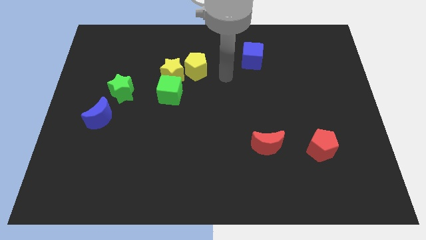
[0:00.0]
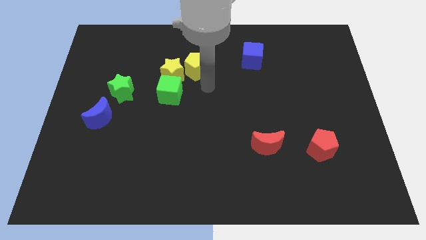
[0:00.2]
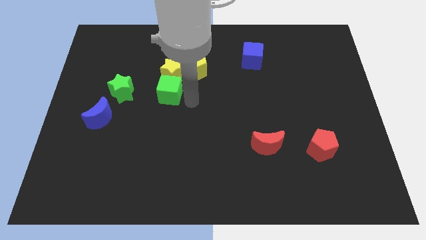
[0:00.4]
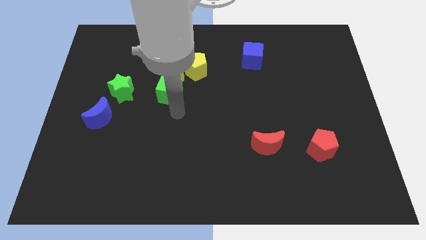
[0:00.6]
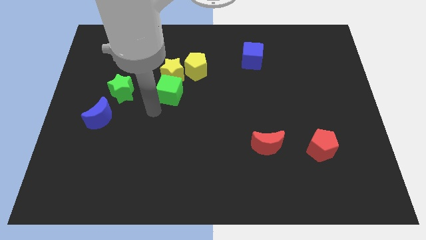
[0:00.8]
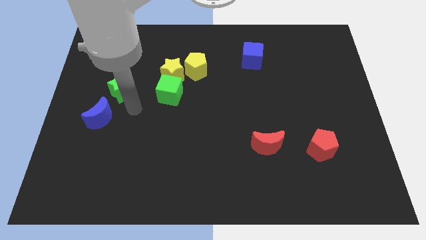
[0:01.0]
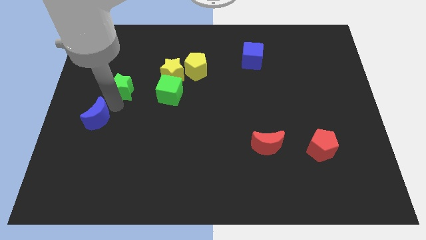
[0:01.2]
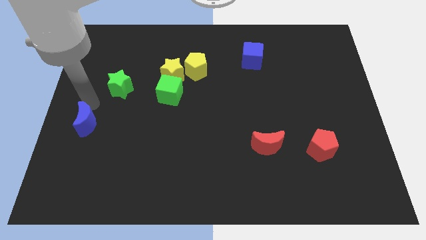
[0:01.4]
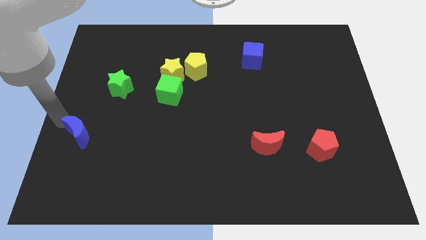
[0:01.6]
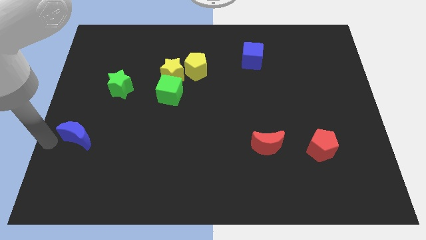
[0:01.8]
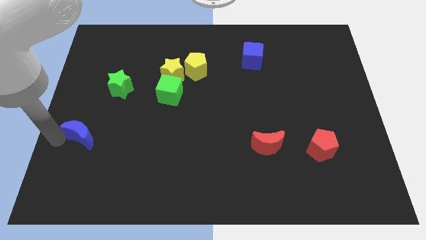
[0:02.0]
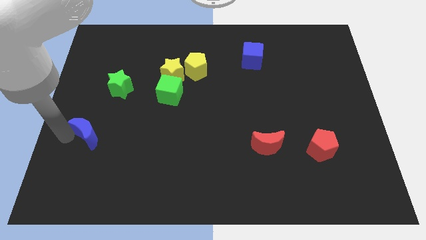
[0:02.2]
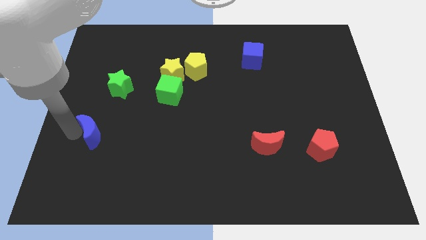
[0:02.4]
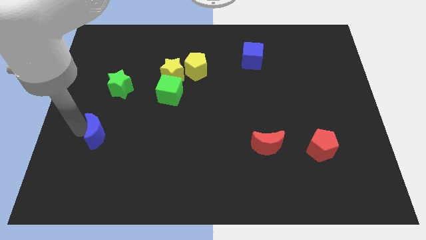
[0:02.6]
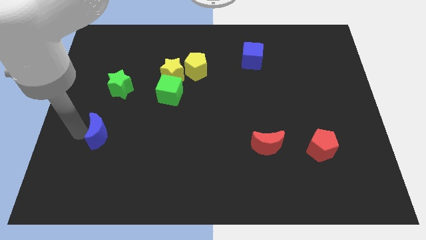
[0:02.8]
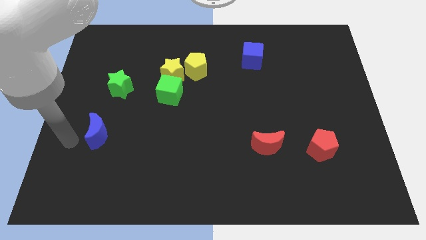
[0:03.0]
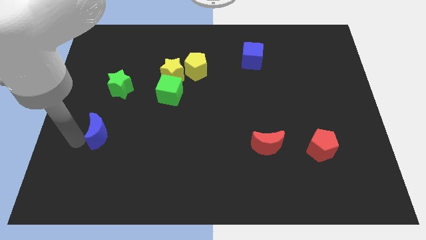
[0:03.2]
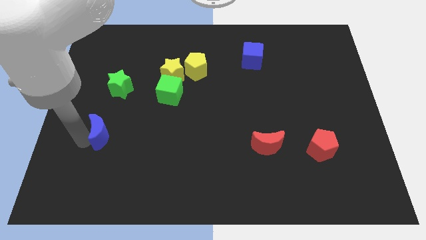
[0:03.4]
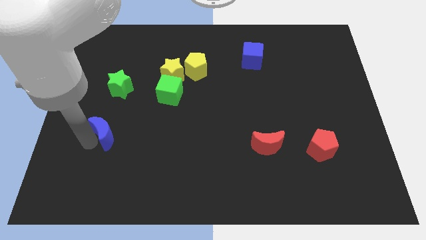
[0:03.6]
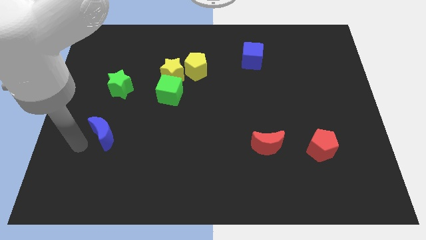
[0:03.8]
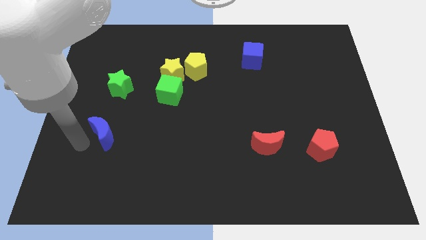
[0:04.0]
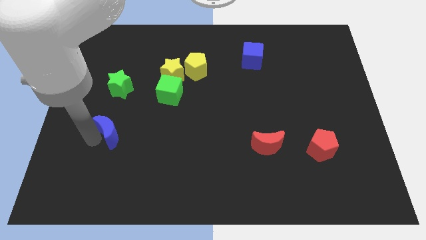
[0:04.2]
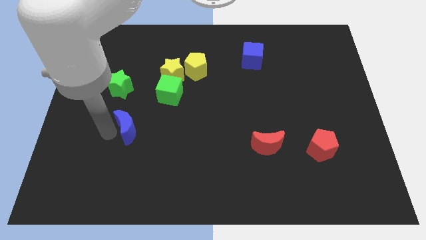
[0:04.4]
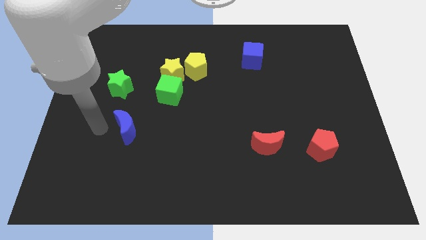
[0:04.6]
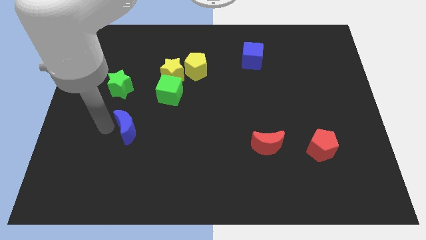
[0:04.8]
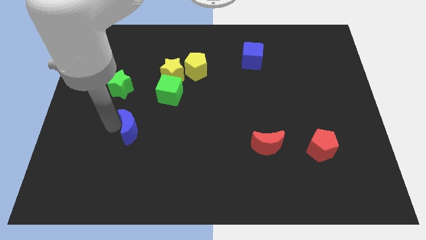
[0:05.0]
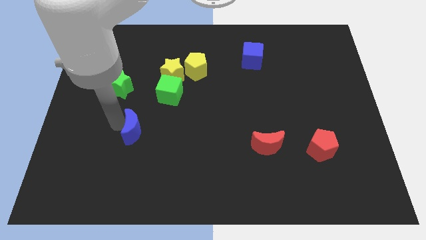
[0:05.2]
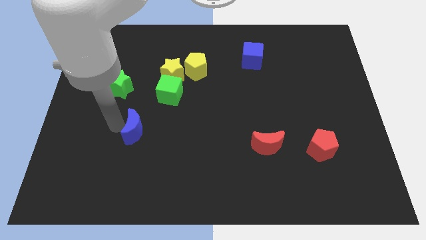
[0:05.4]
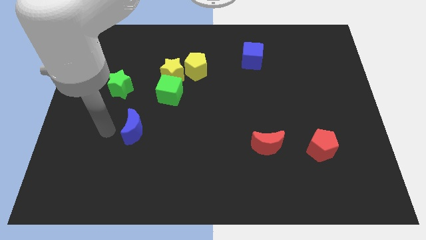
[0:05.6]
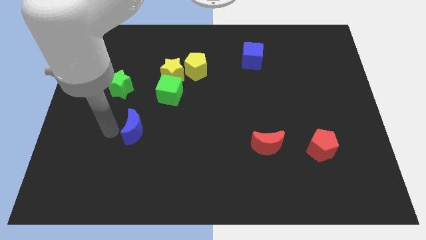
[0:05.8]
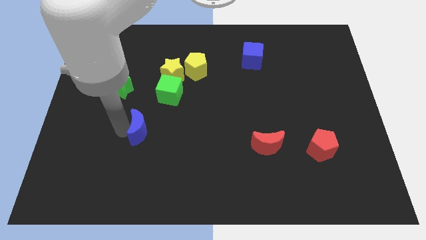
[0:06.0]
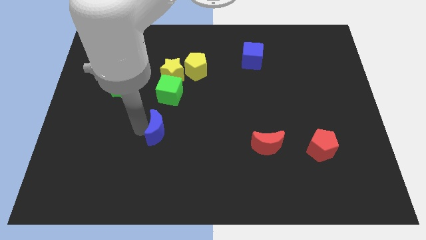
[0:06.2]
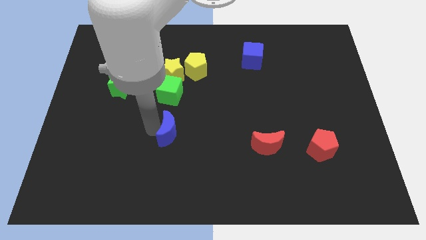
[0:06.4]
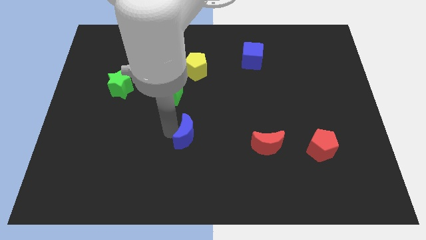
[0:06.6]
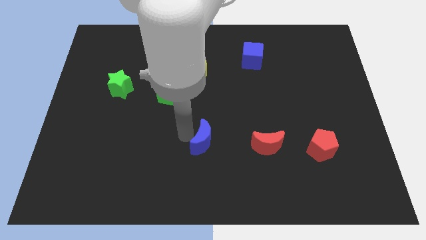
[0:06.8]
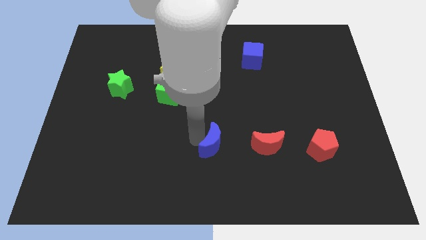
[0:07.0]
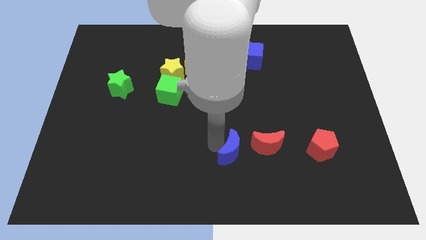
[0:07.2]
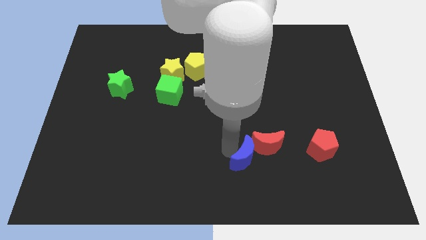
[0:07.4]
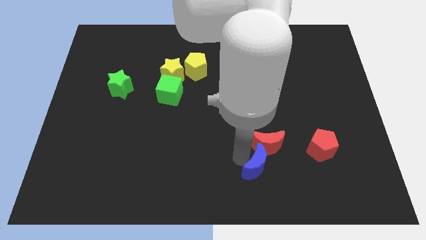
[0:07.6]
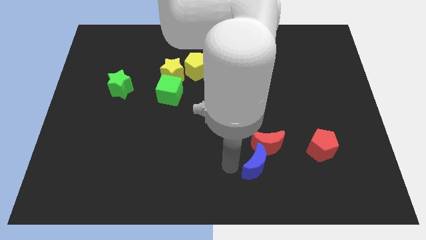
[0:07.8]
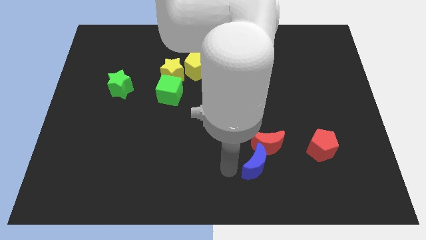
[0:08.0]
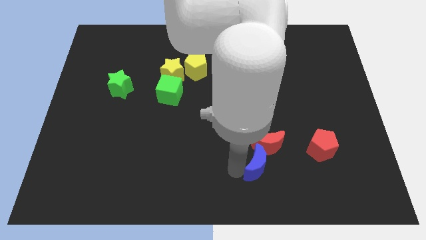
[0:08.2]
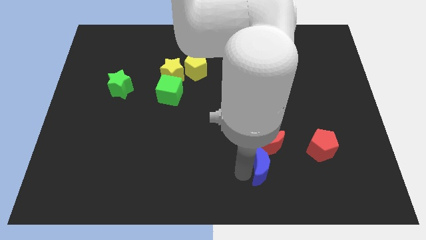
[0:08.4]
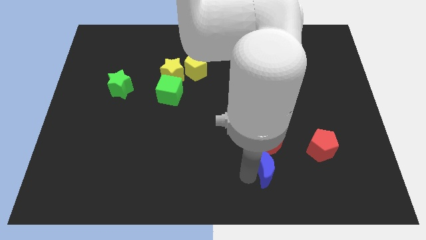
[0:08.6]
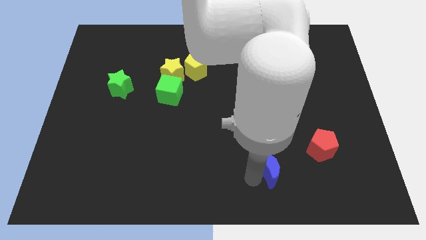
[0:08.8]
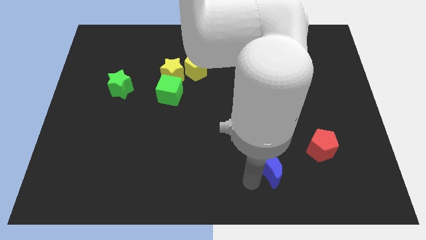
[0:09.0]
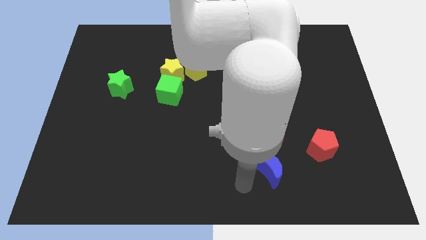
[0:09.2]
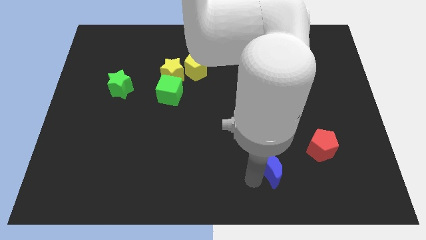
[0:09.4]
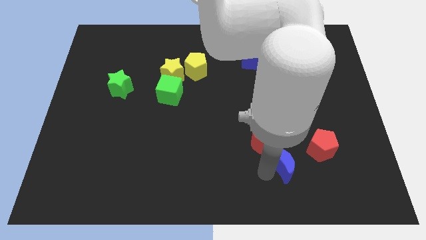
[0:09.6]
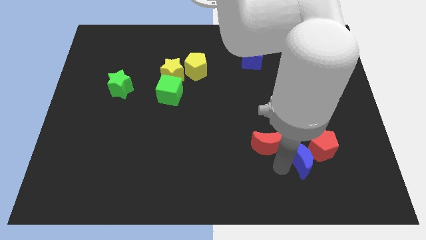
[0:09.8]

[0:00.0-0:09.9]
move the blue moon towards the red pentagon

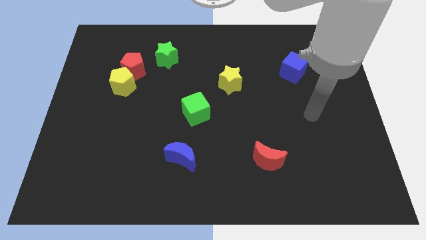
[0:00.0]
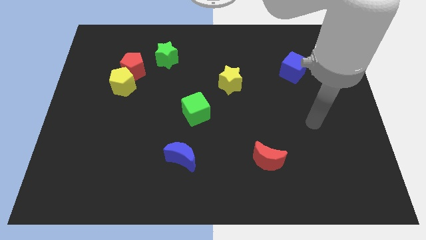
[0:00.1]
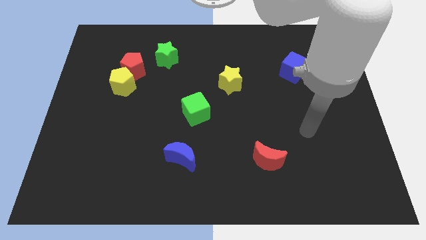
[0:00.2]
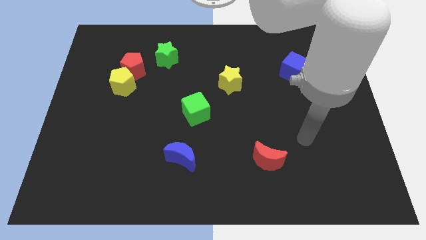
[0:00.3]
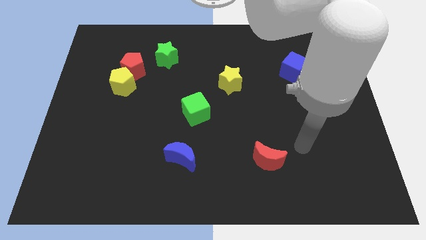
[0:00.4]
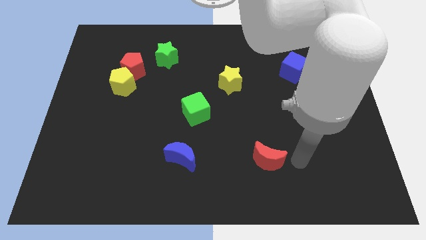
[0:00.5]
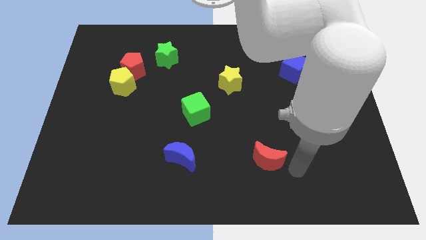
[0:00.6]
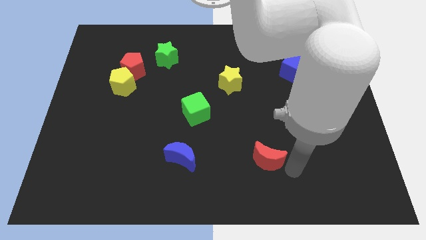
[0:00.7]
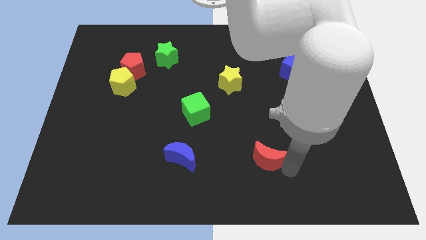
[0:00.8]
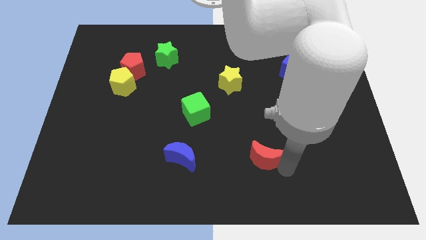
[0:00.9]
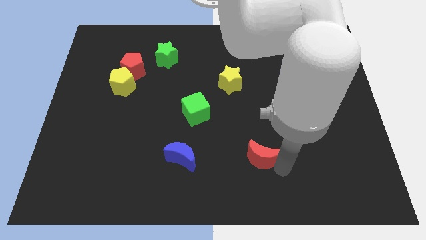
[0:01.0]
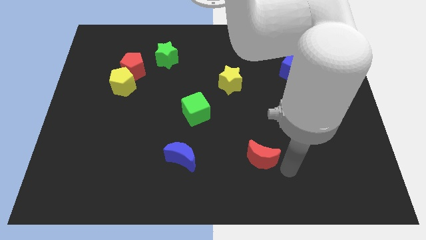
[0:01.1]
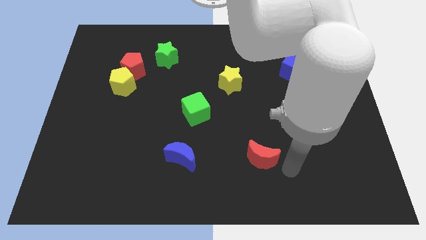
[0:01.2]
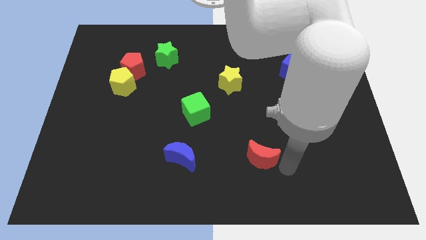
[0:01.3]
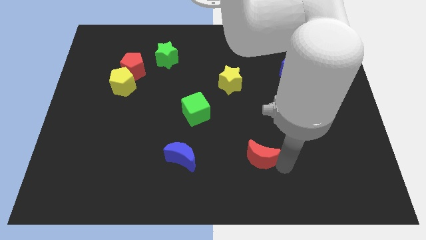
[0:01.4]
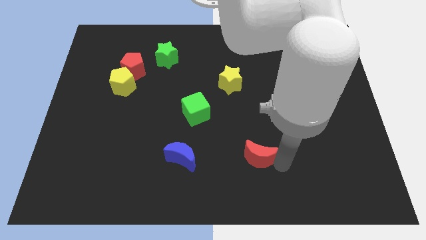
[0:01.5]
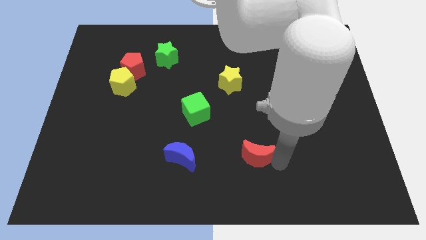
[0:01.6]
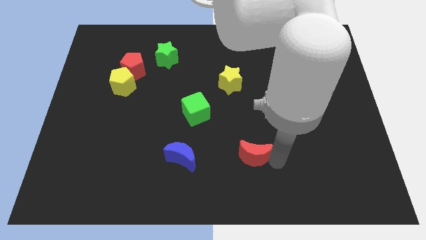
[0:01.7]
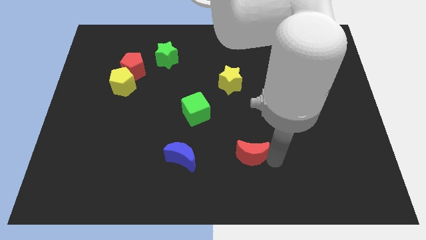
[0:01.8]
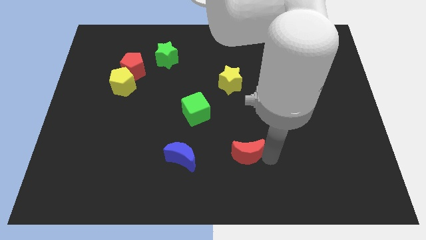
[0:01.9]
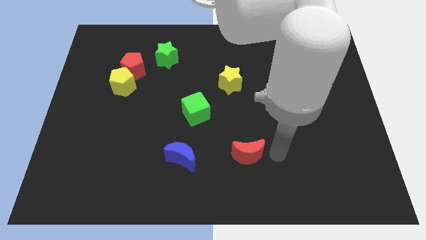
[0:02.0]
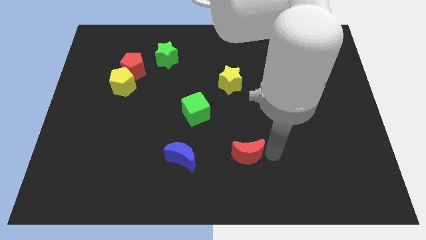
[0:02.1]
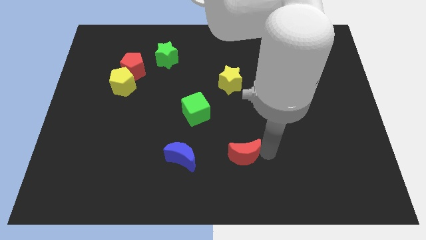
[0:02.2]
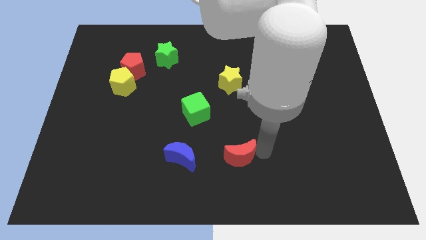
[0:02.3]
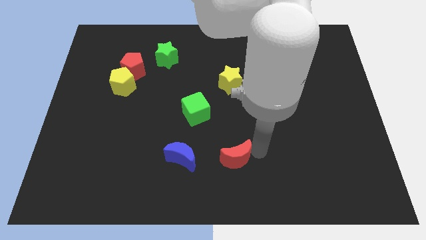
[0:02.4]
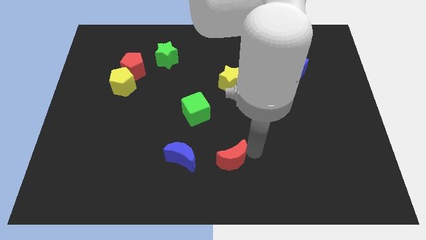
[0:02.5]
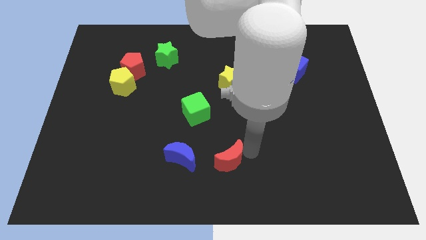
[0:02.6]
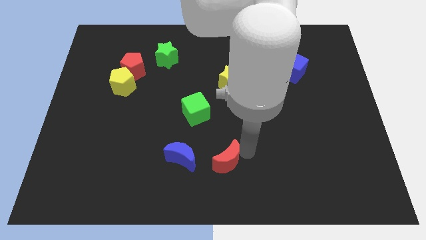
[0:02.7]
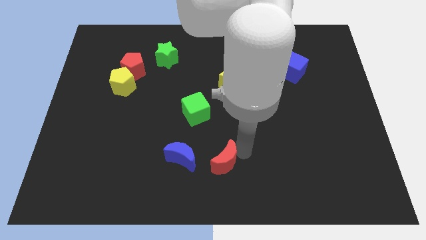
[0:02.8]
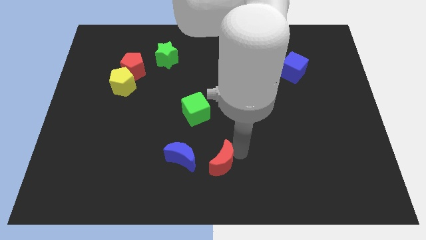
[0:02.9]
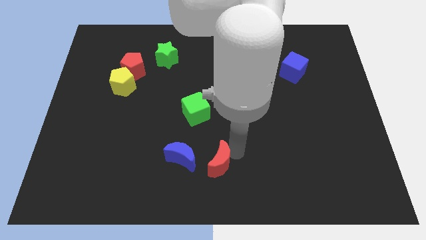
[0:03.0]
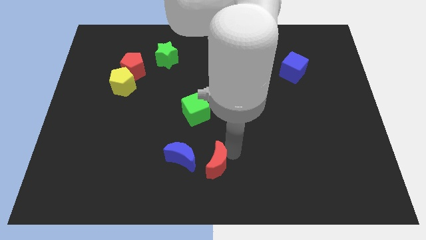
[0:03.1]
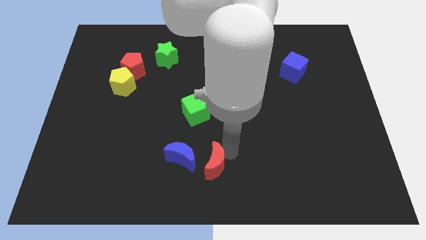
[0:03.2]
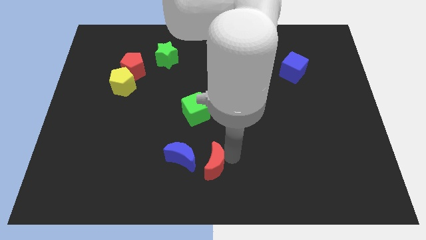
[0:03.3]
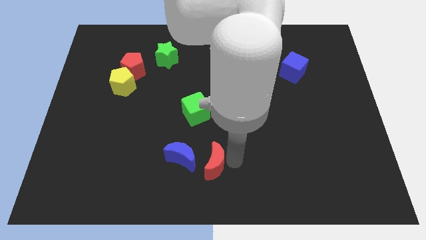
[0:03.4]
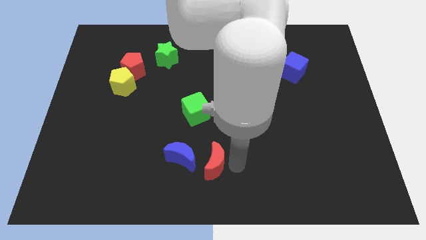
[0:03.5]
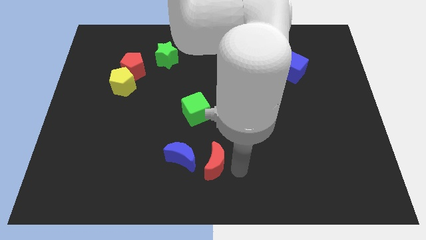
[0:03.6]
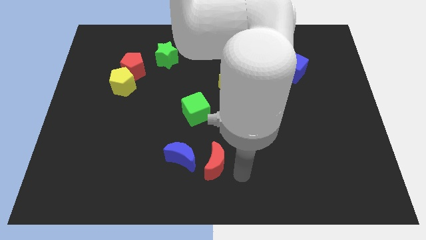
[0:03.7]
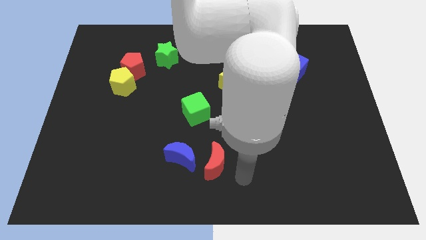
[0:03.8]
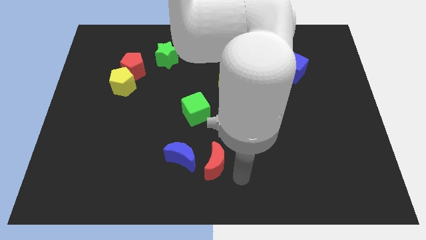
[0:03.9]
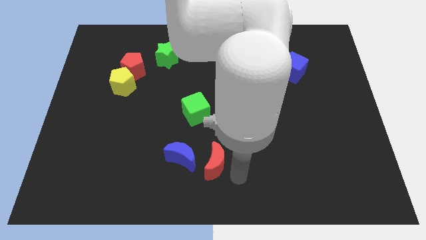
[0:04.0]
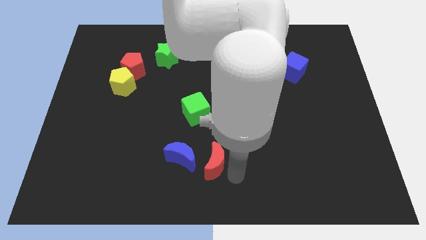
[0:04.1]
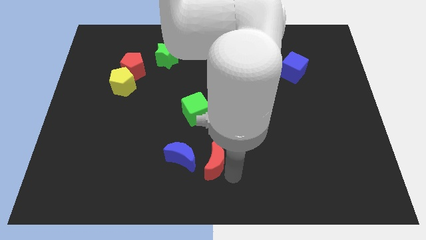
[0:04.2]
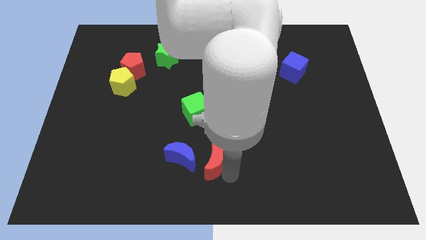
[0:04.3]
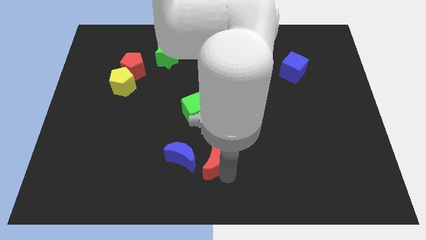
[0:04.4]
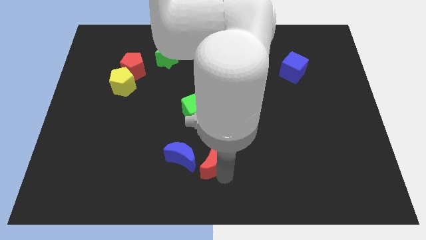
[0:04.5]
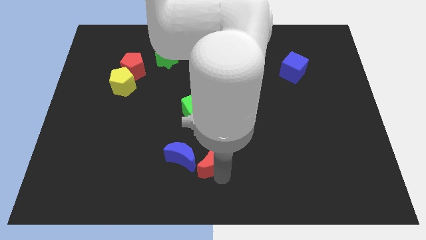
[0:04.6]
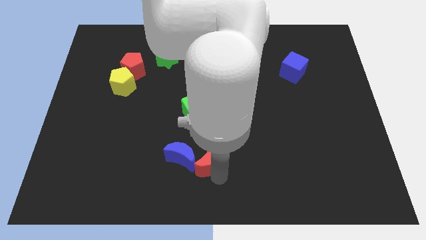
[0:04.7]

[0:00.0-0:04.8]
put the red moon next to the blue moon
